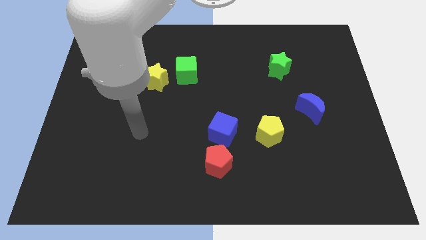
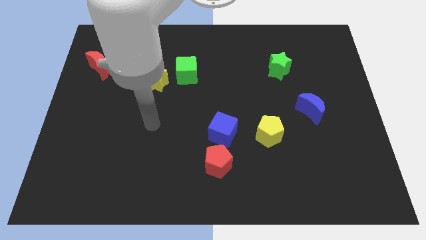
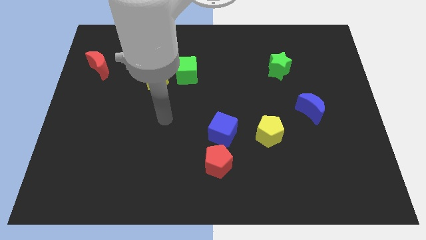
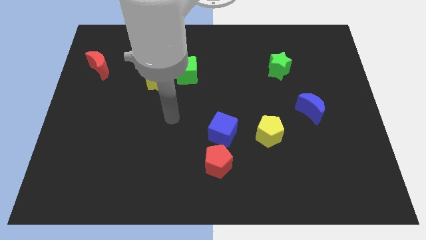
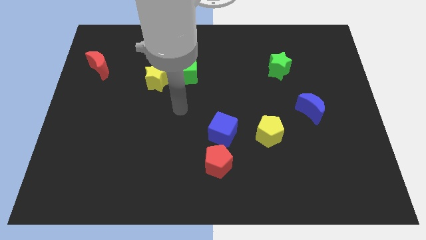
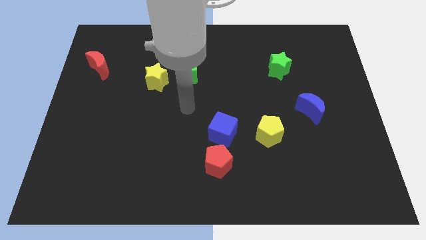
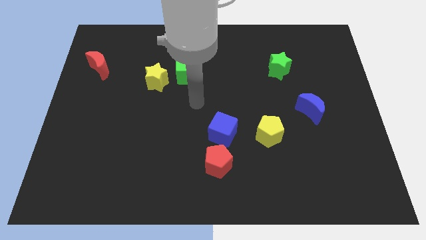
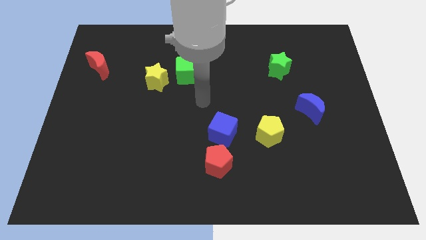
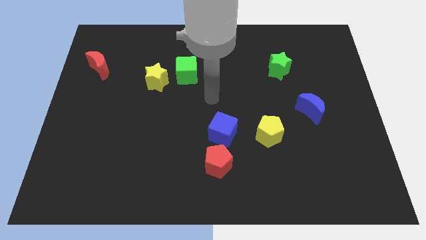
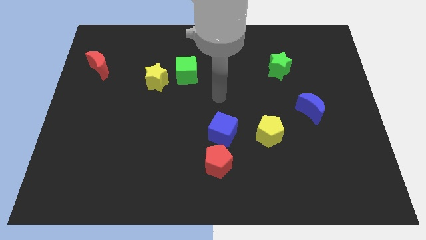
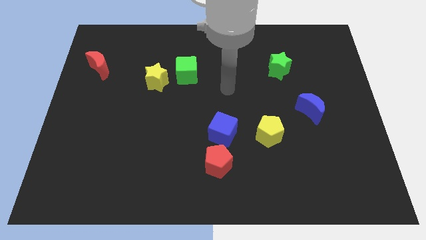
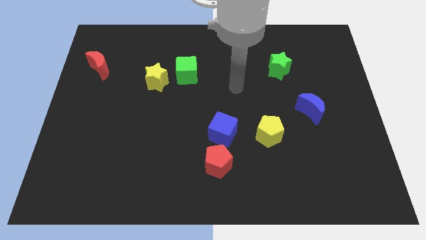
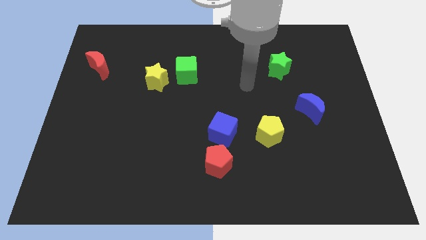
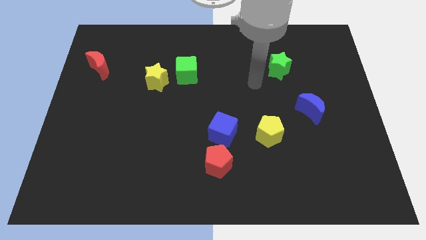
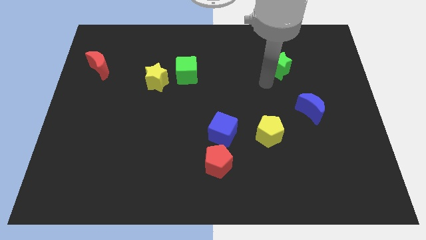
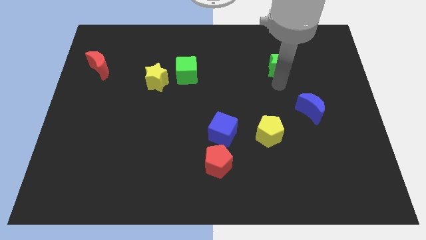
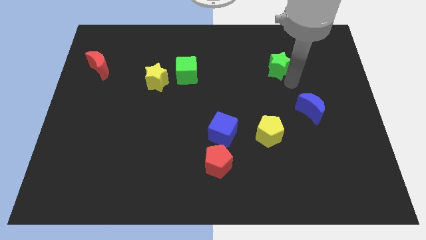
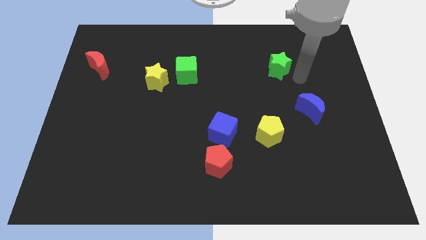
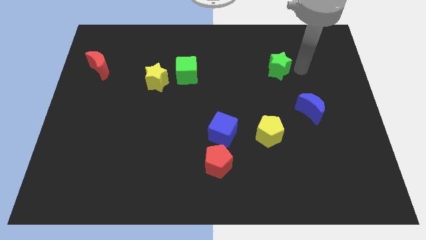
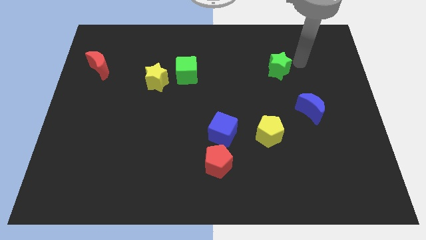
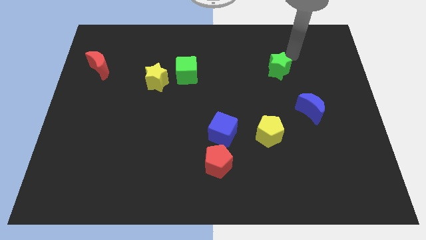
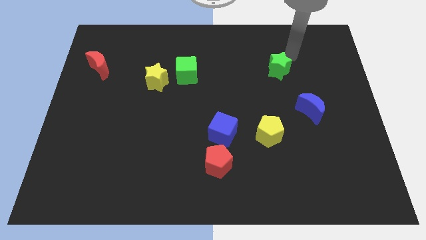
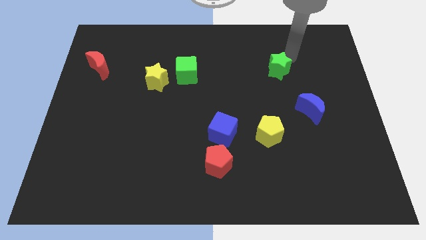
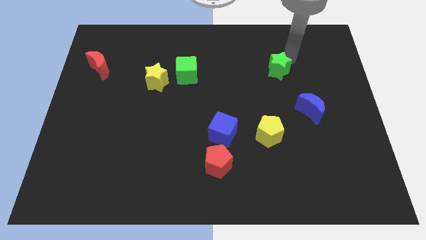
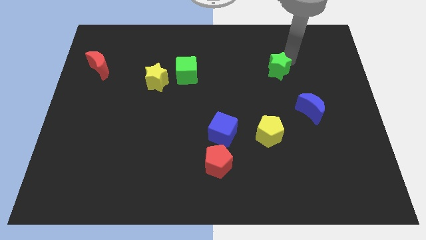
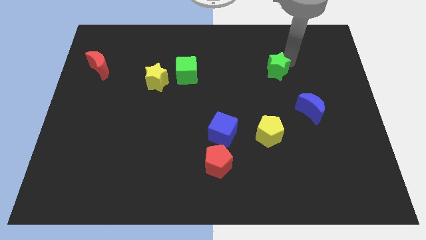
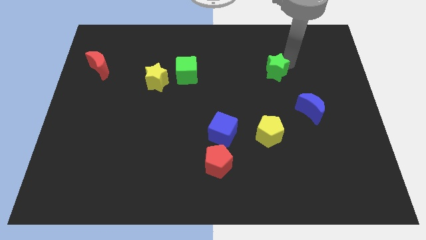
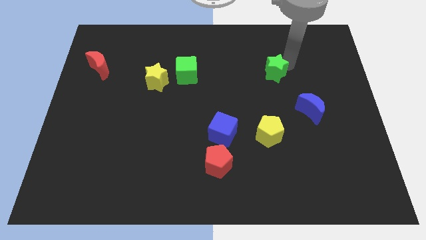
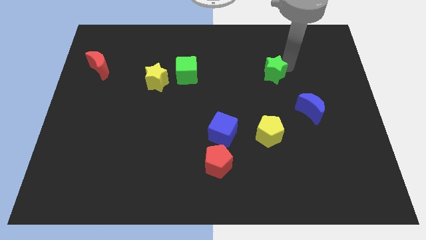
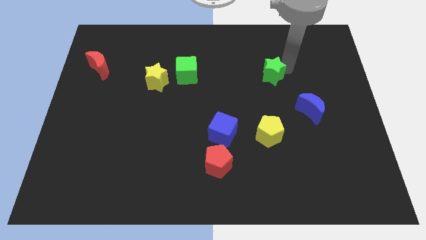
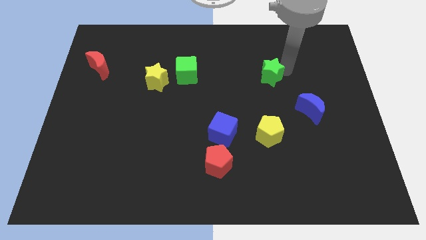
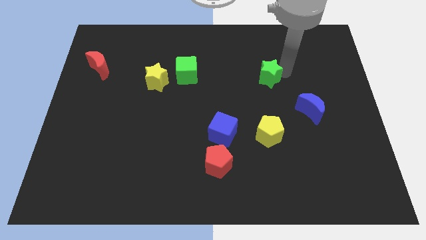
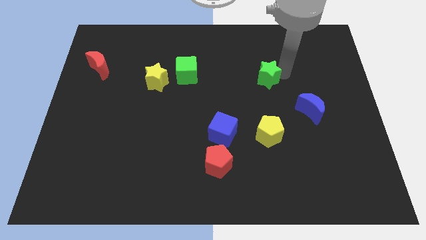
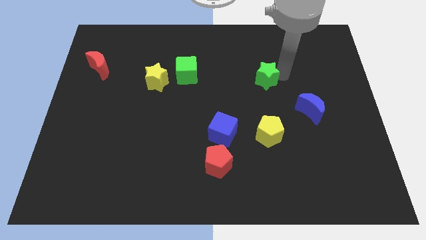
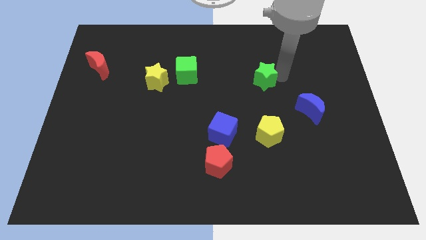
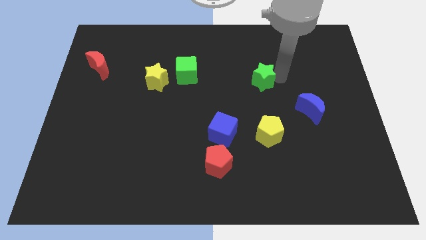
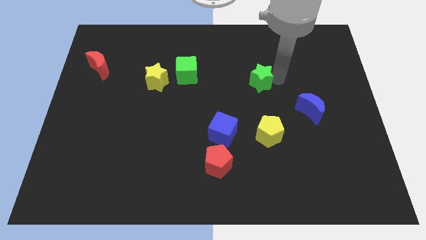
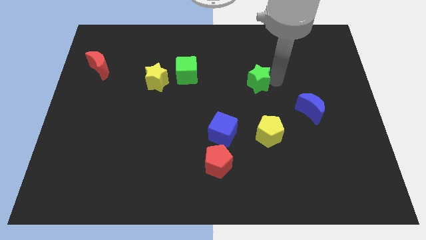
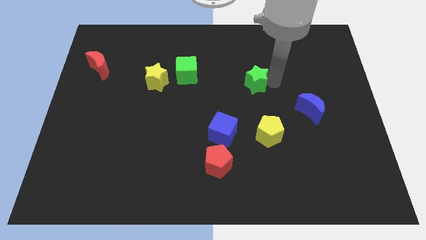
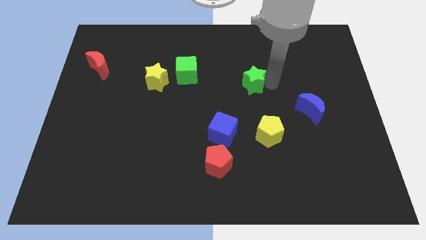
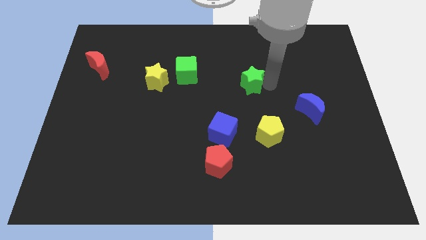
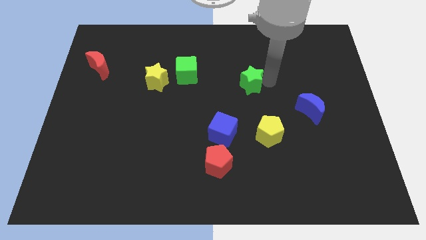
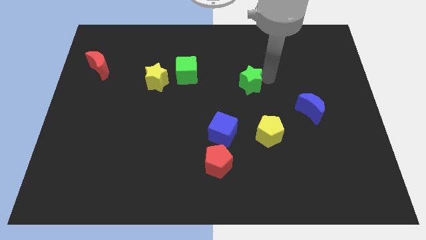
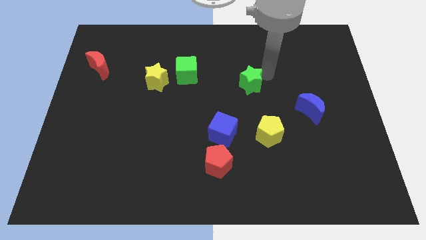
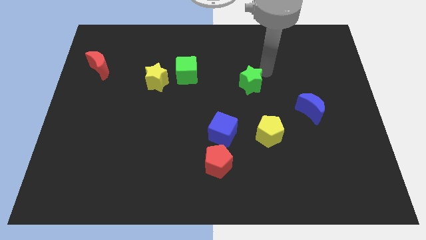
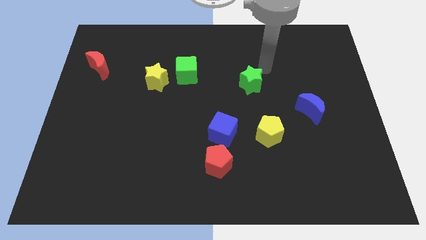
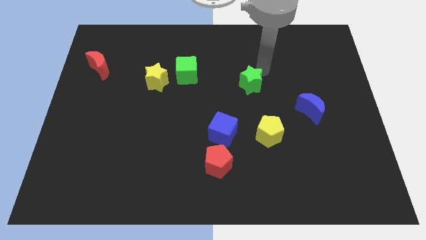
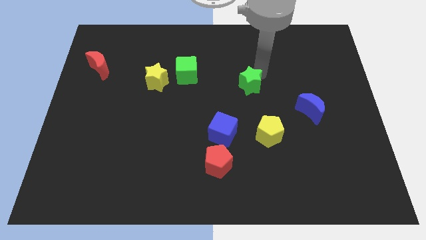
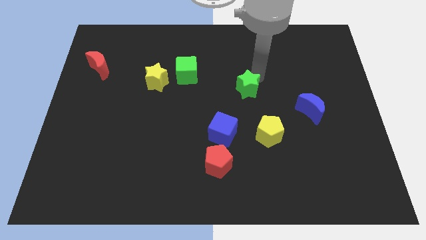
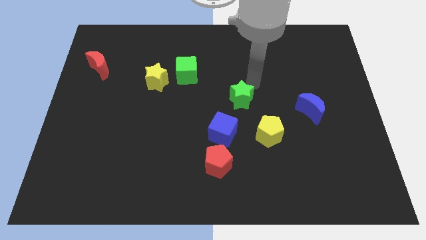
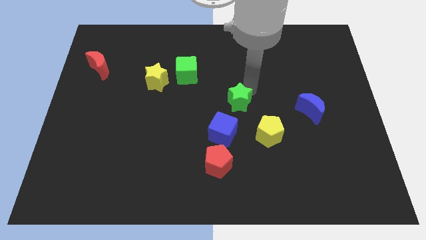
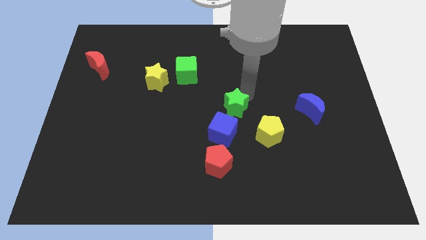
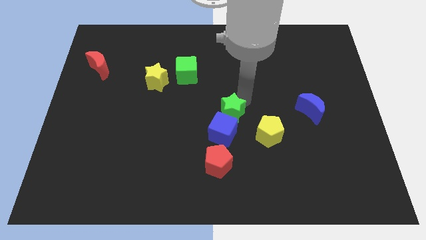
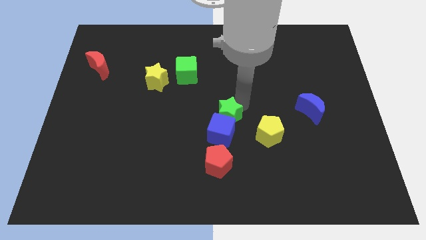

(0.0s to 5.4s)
push the green star down and left

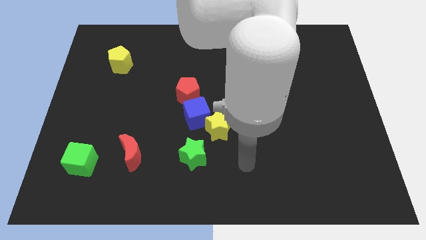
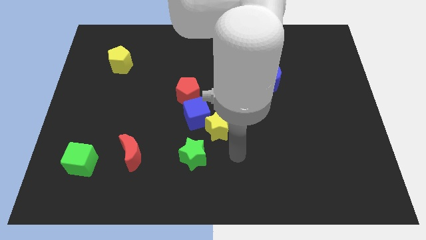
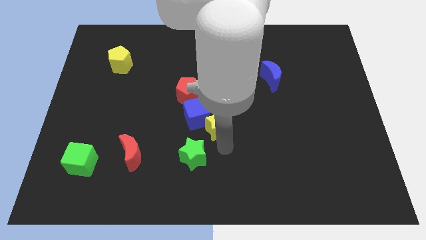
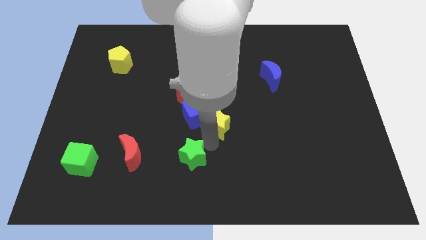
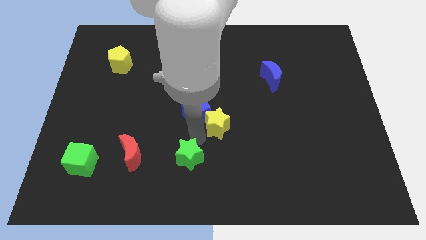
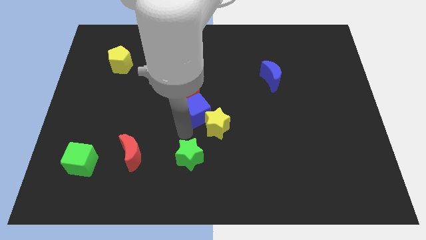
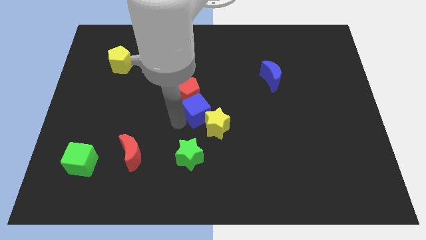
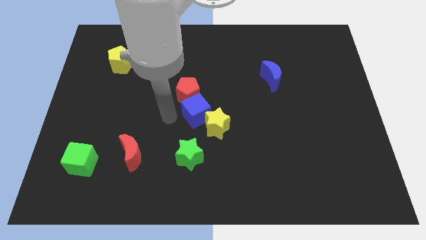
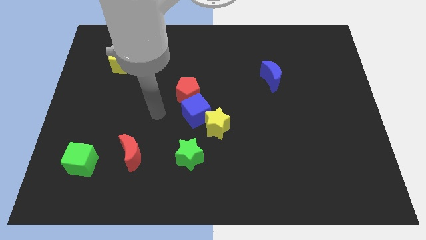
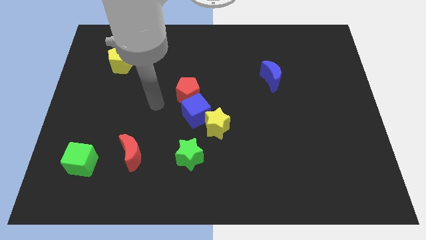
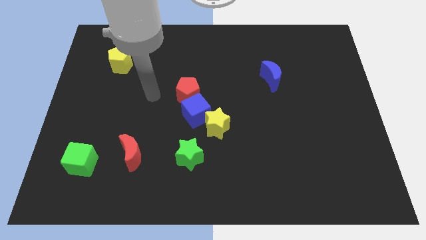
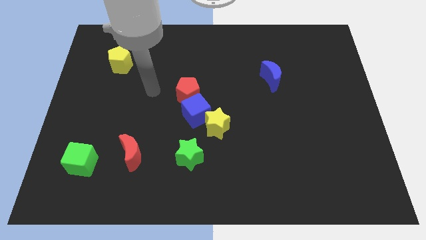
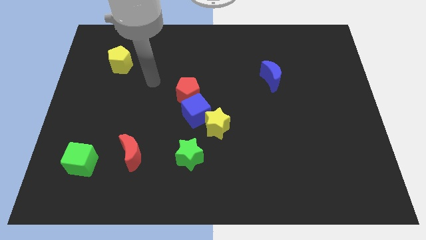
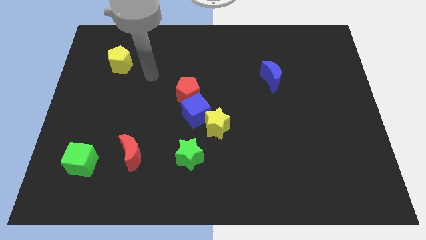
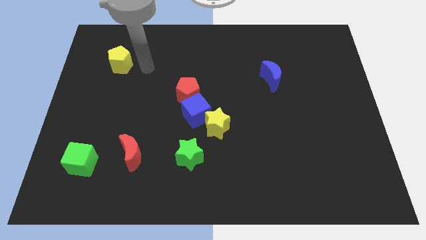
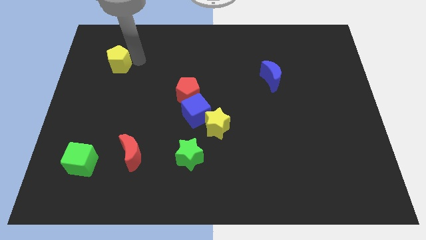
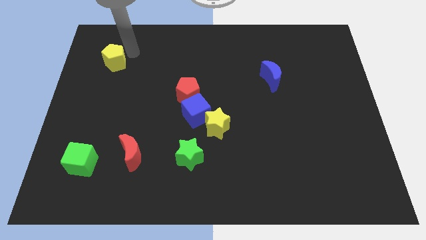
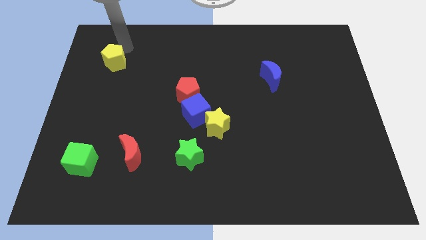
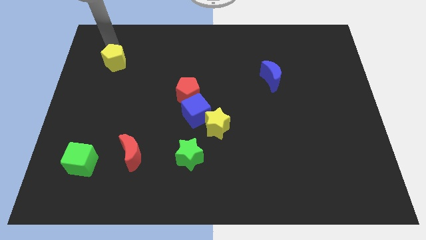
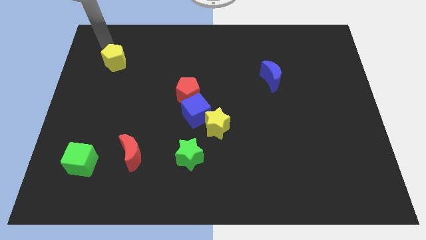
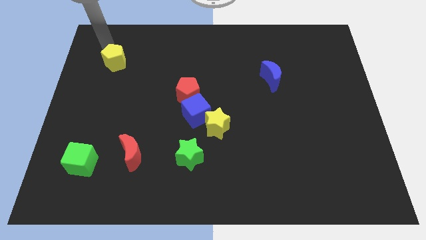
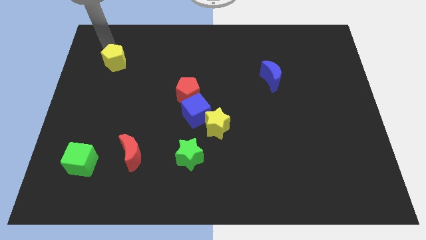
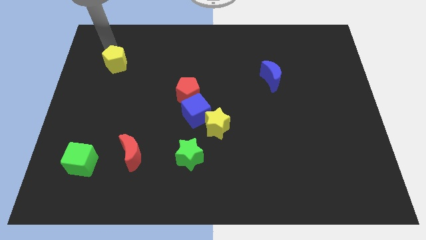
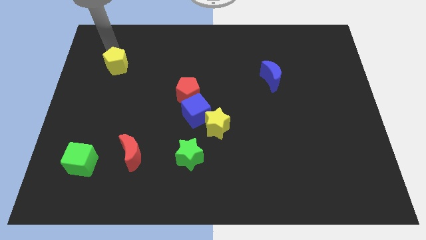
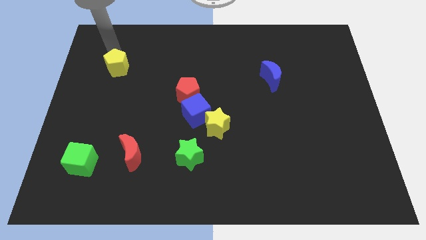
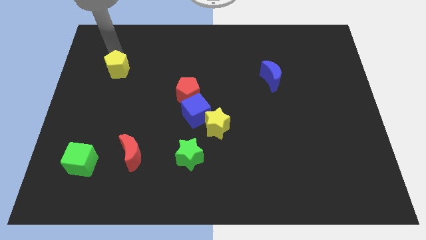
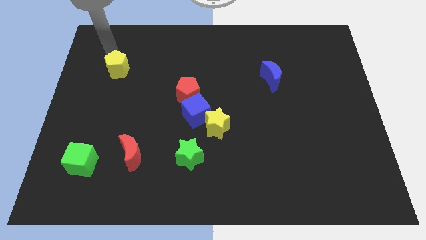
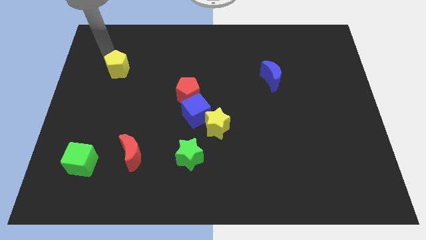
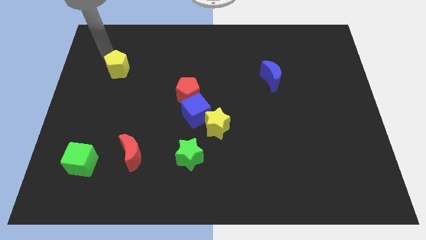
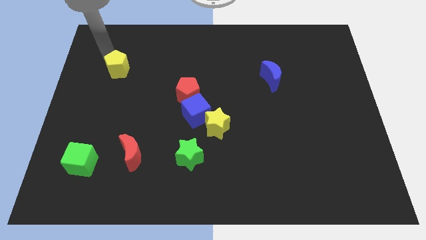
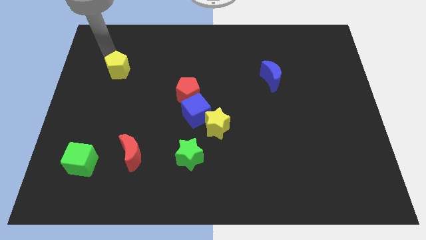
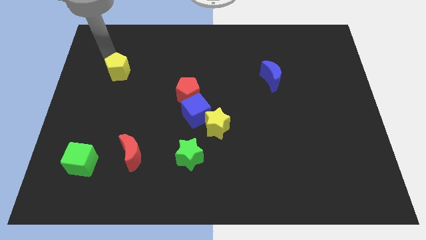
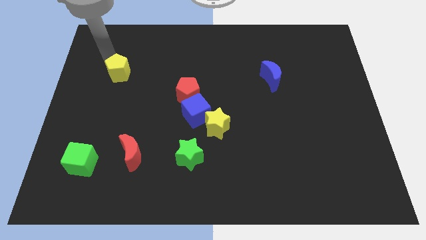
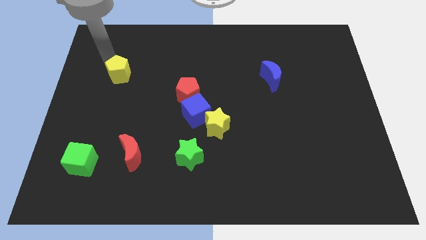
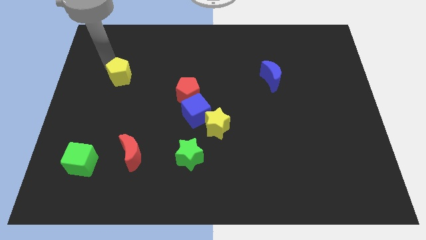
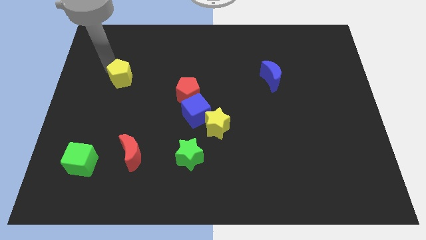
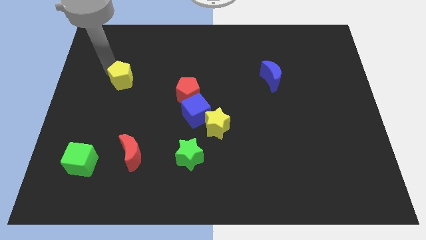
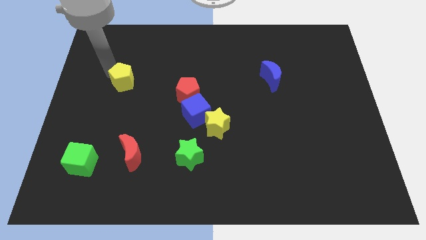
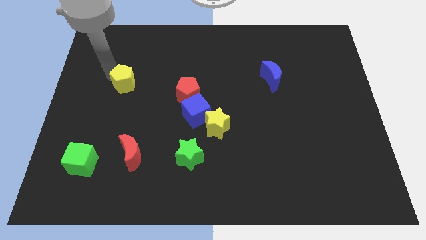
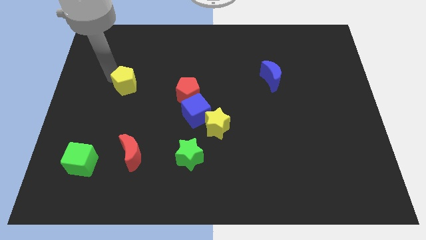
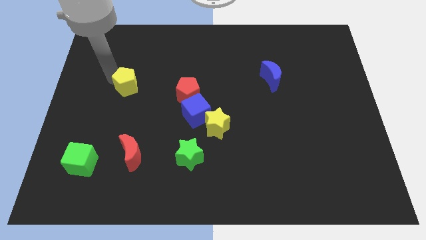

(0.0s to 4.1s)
slightly move the yellow pentagon diagonally downwards and to the right
